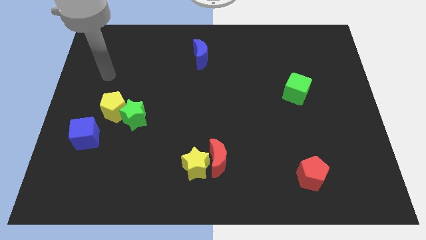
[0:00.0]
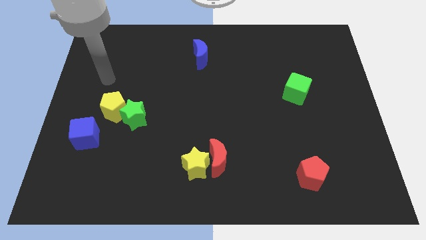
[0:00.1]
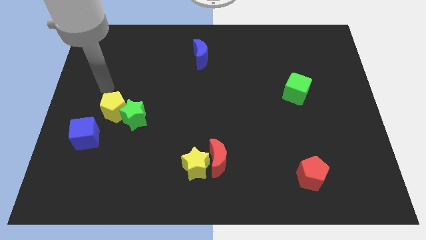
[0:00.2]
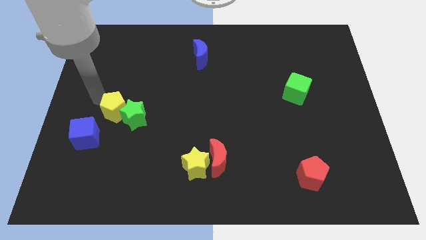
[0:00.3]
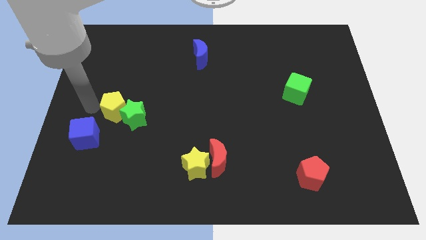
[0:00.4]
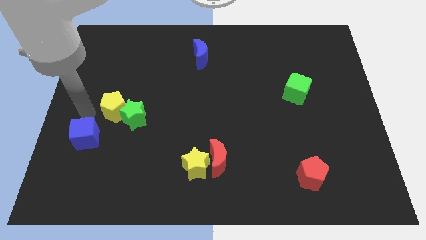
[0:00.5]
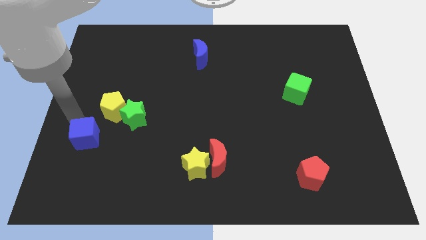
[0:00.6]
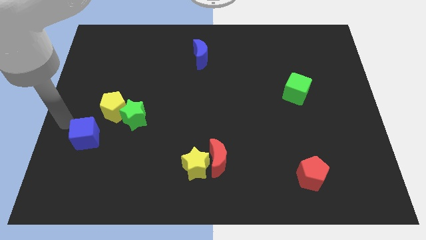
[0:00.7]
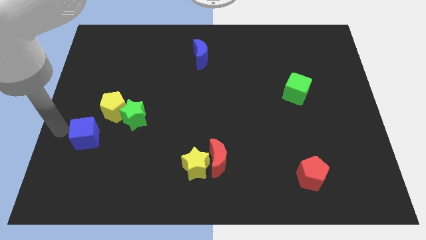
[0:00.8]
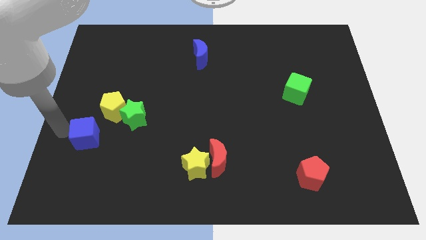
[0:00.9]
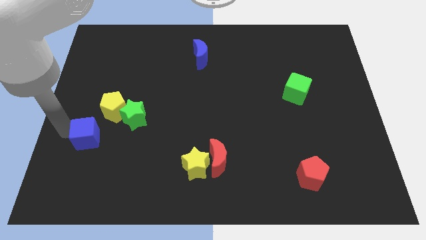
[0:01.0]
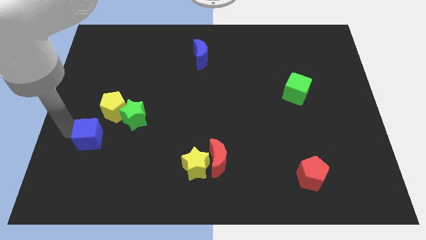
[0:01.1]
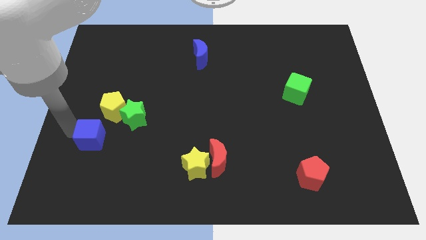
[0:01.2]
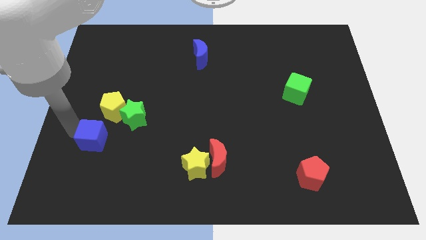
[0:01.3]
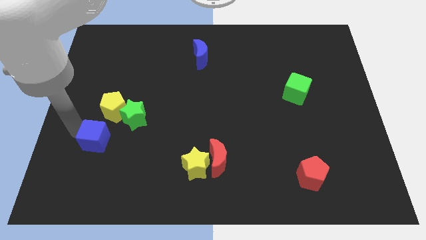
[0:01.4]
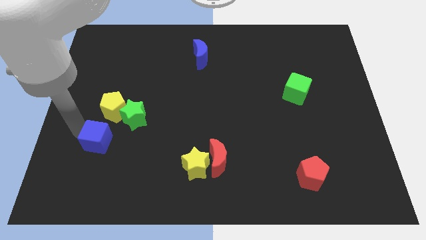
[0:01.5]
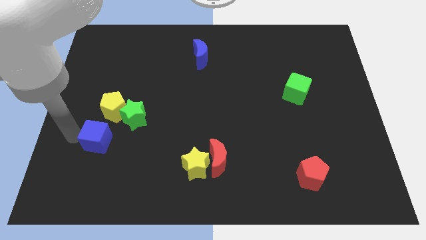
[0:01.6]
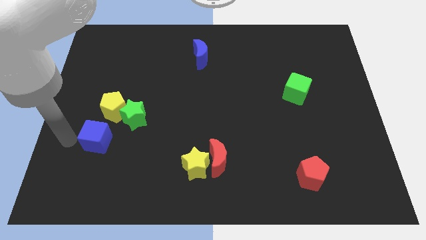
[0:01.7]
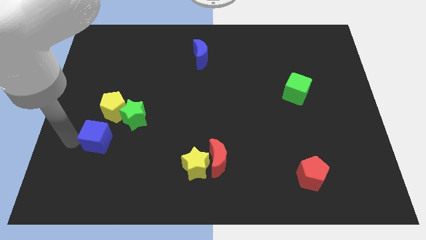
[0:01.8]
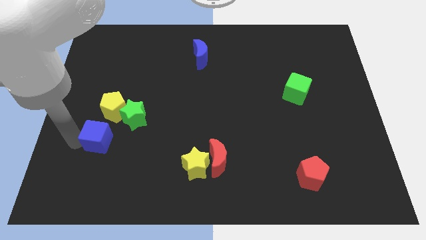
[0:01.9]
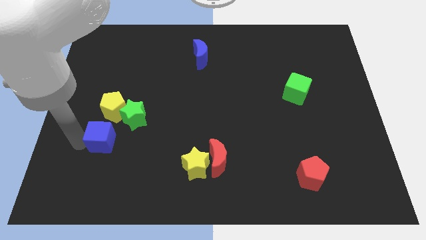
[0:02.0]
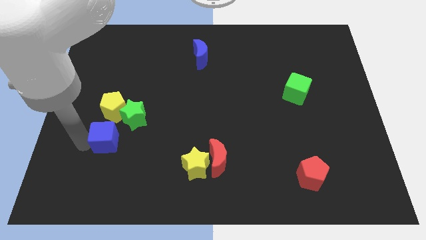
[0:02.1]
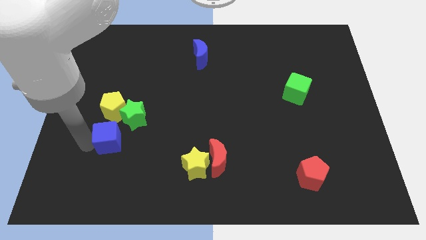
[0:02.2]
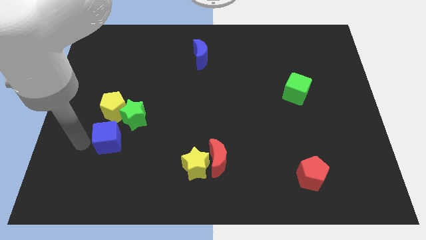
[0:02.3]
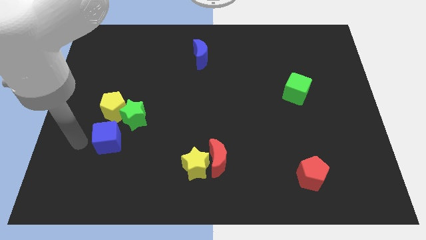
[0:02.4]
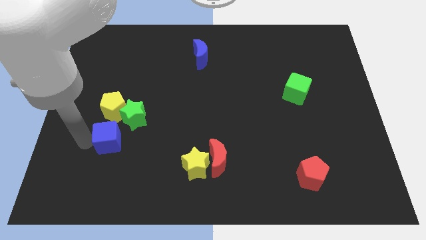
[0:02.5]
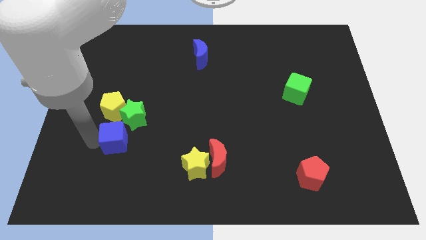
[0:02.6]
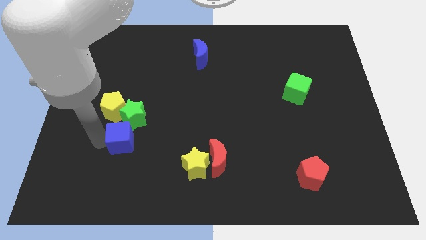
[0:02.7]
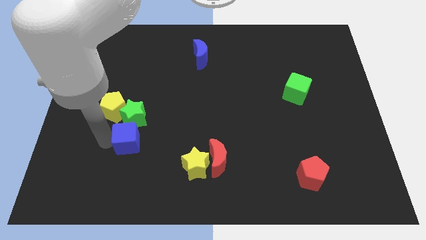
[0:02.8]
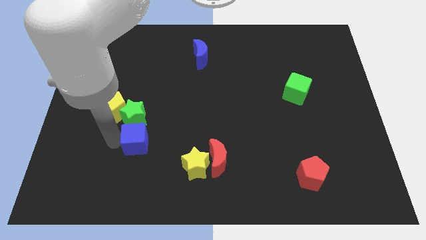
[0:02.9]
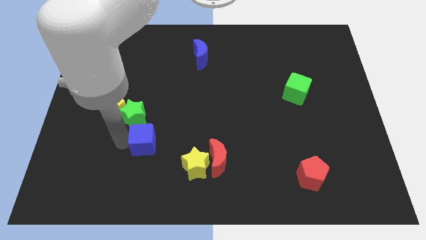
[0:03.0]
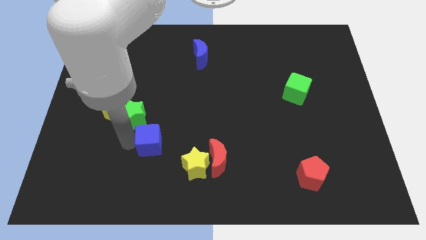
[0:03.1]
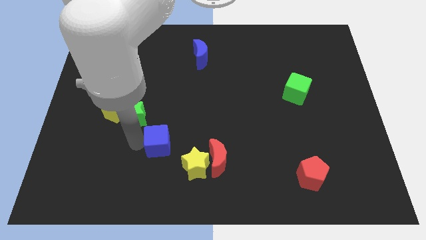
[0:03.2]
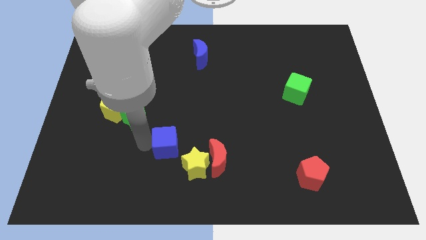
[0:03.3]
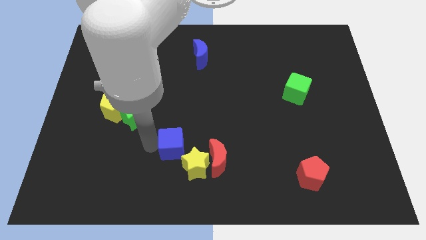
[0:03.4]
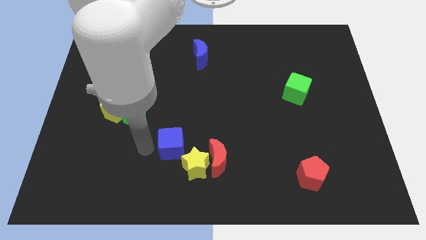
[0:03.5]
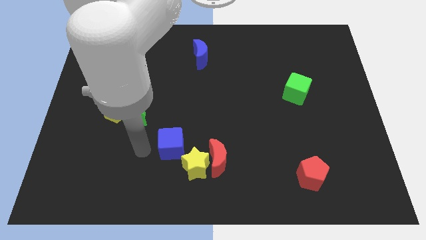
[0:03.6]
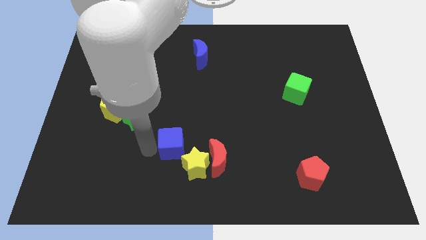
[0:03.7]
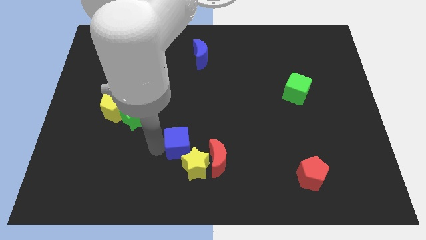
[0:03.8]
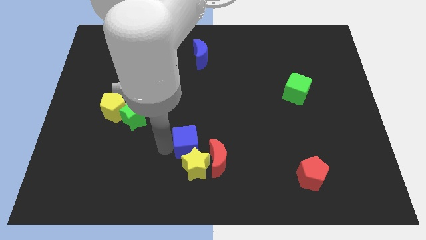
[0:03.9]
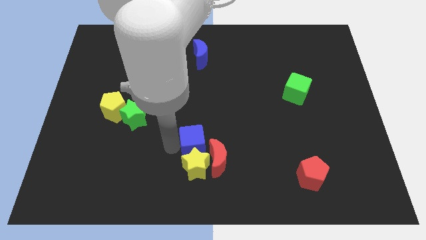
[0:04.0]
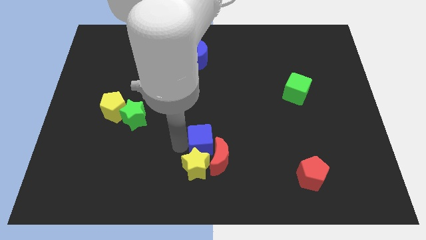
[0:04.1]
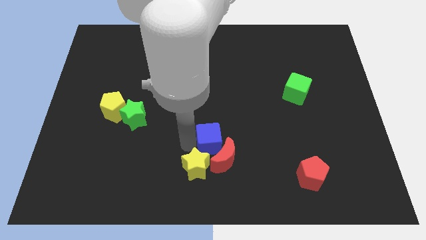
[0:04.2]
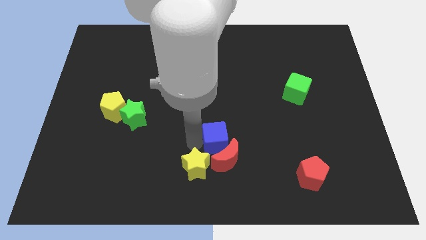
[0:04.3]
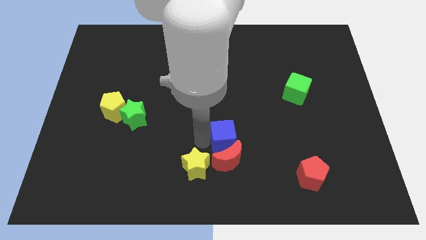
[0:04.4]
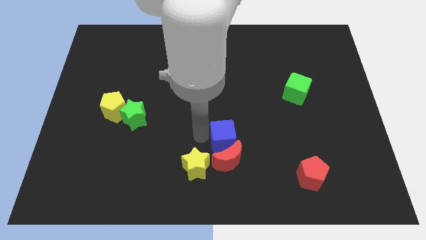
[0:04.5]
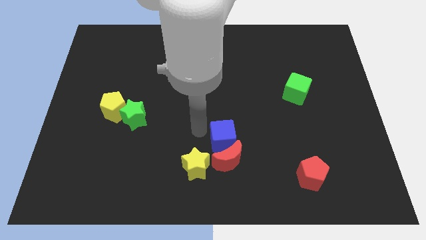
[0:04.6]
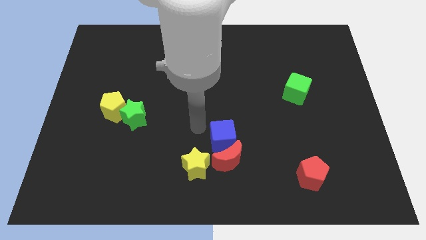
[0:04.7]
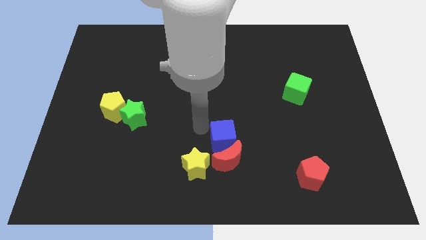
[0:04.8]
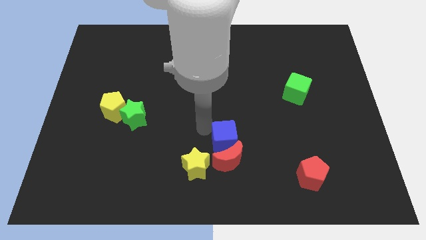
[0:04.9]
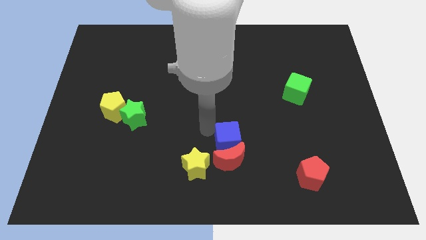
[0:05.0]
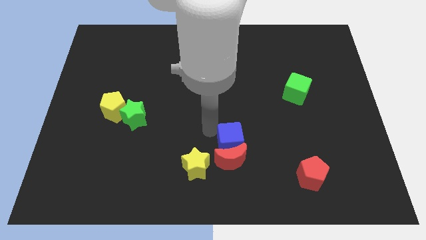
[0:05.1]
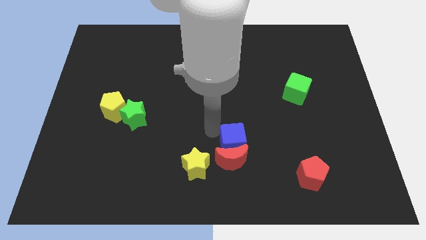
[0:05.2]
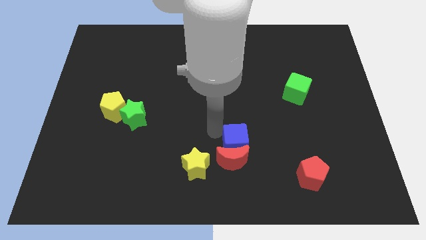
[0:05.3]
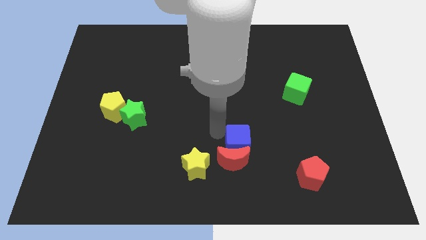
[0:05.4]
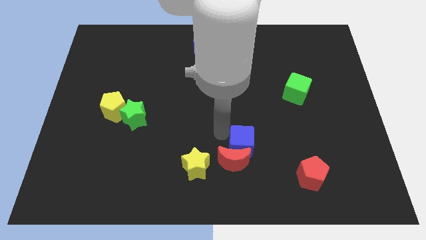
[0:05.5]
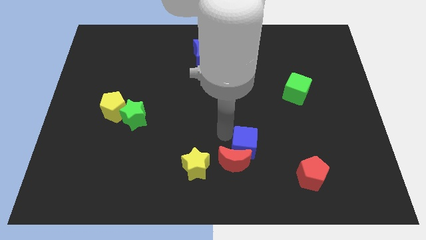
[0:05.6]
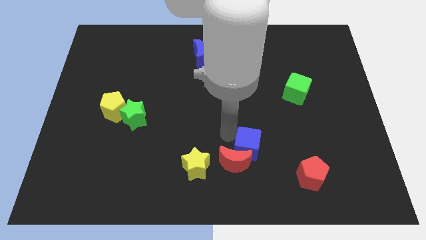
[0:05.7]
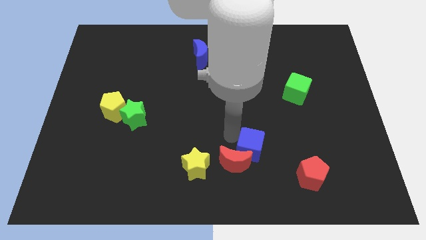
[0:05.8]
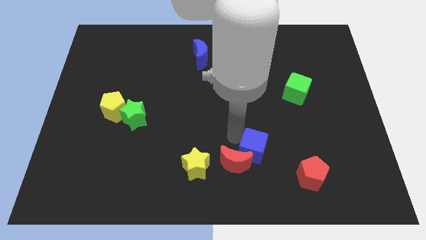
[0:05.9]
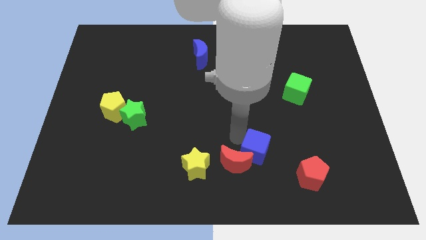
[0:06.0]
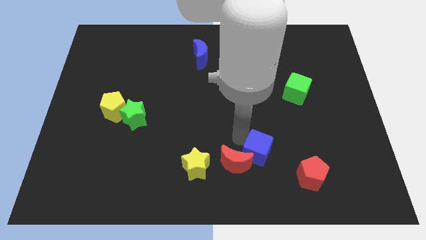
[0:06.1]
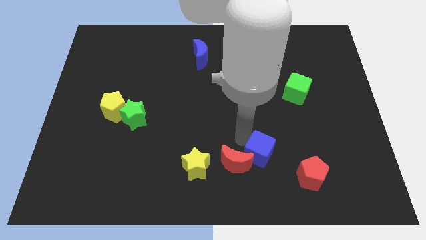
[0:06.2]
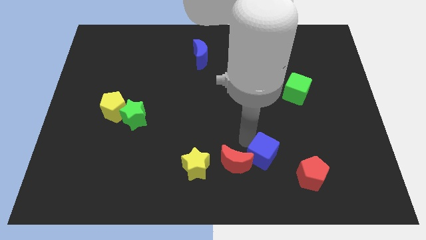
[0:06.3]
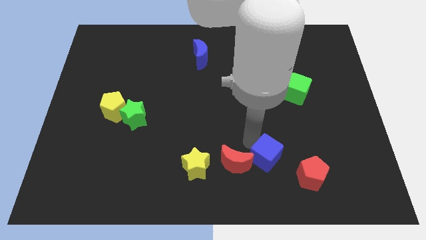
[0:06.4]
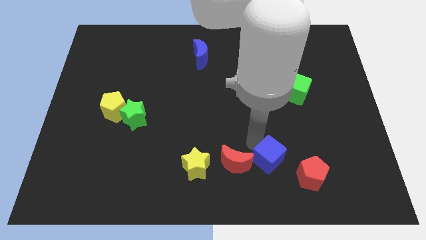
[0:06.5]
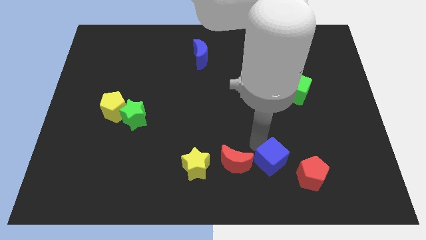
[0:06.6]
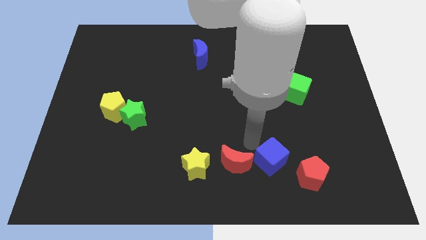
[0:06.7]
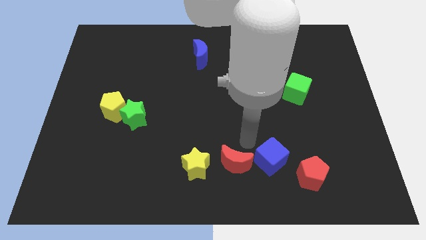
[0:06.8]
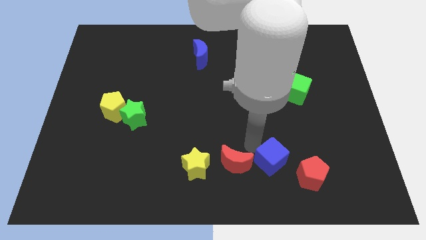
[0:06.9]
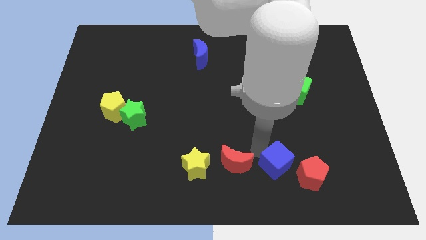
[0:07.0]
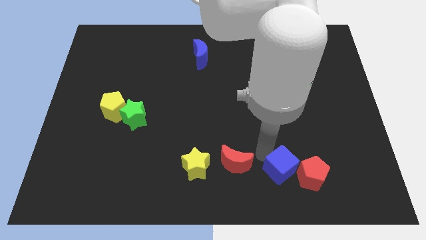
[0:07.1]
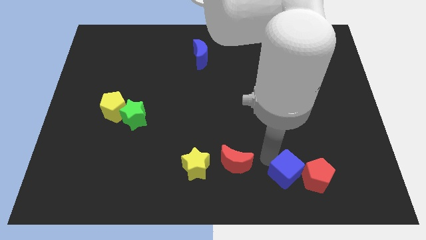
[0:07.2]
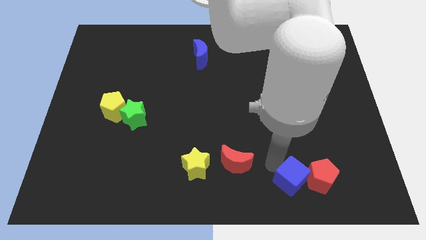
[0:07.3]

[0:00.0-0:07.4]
push the blue cube close to the red pentagon
